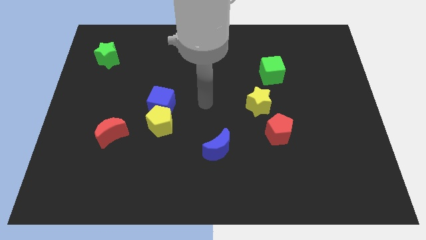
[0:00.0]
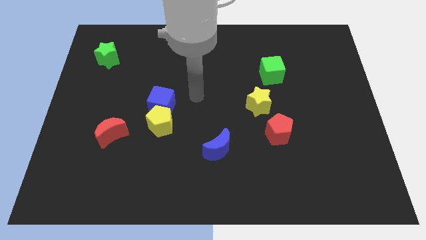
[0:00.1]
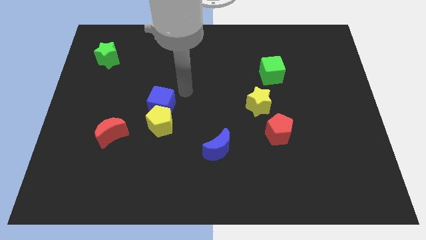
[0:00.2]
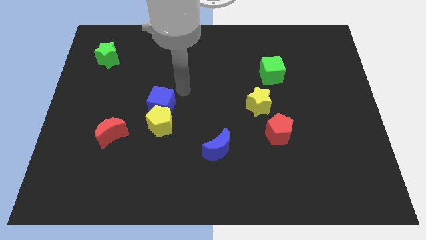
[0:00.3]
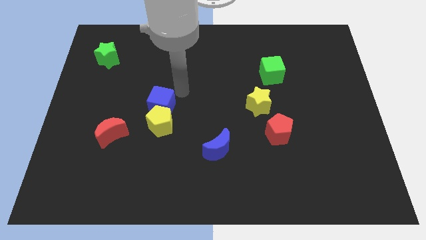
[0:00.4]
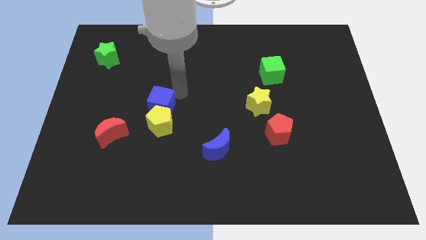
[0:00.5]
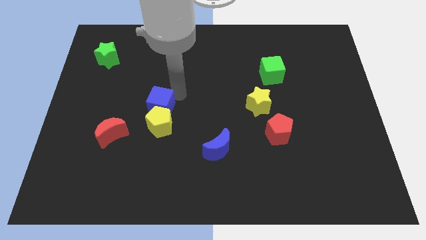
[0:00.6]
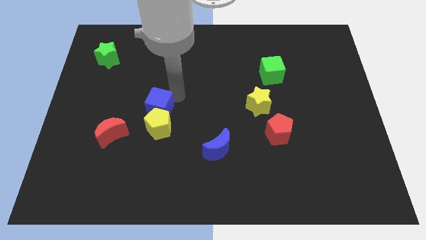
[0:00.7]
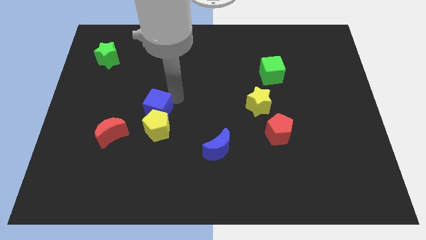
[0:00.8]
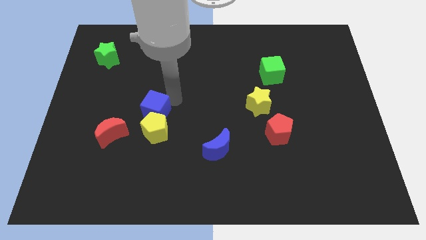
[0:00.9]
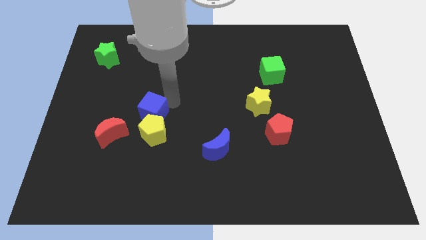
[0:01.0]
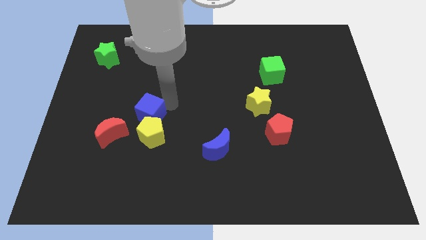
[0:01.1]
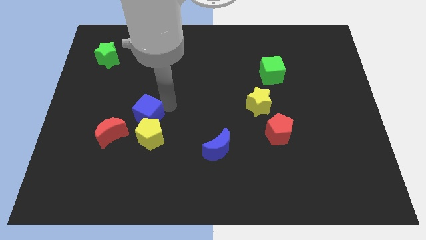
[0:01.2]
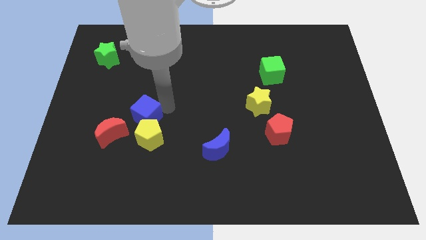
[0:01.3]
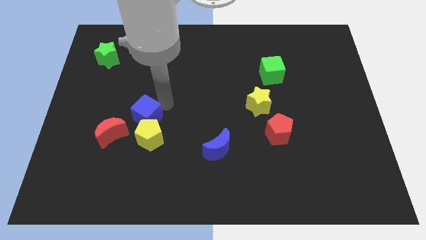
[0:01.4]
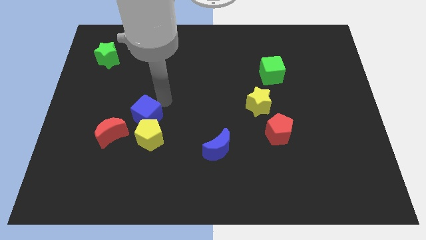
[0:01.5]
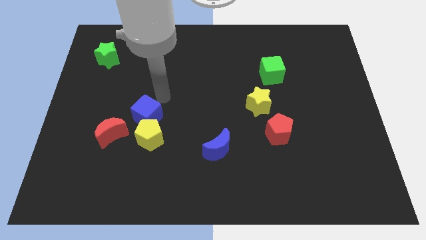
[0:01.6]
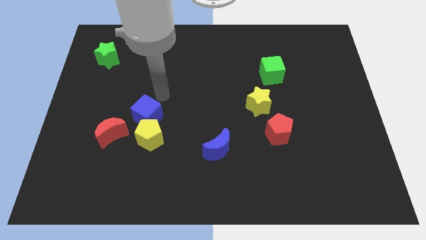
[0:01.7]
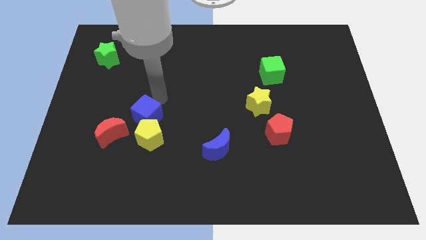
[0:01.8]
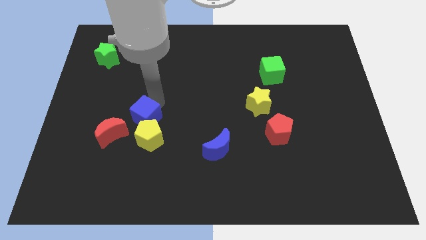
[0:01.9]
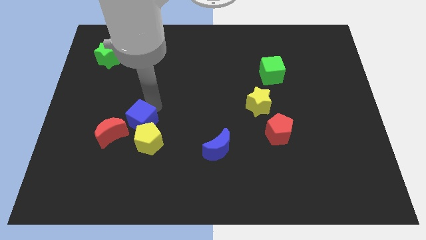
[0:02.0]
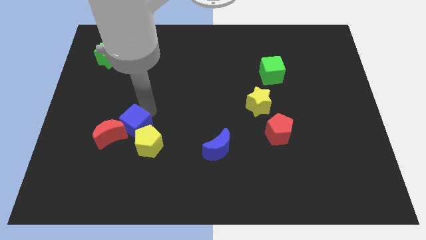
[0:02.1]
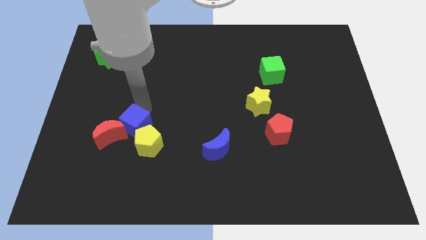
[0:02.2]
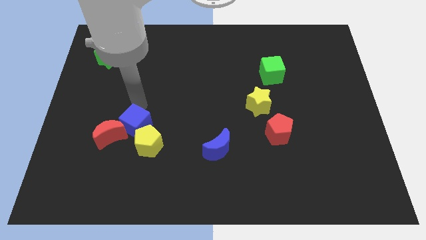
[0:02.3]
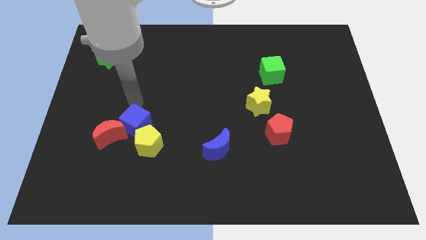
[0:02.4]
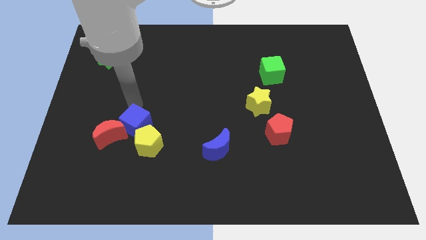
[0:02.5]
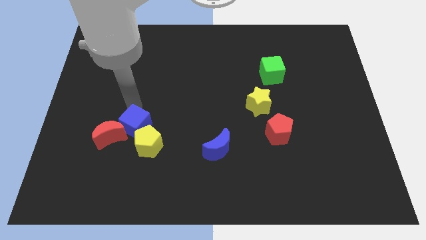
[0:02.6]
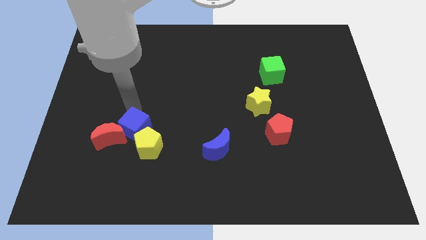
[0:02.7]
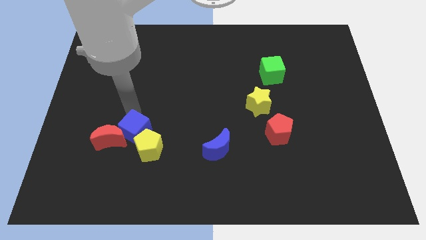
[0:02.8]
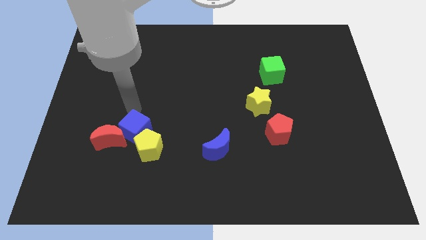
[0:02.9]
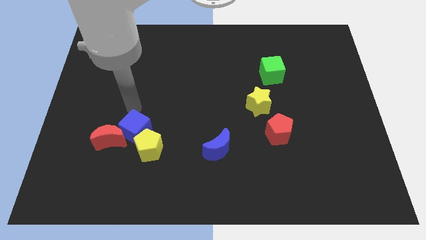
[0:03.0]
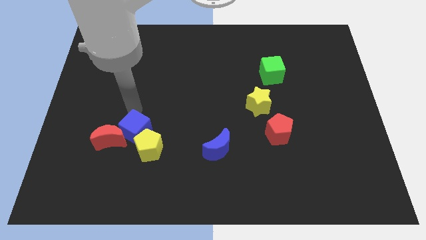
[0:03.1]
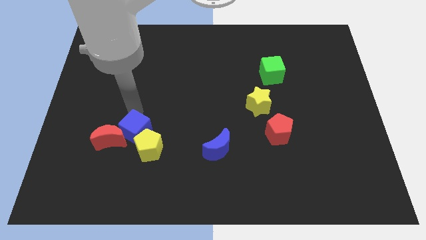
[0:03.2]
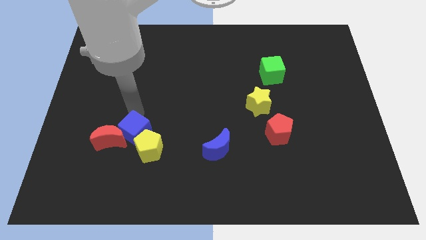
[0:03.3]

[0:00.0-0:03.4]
push the blue cube down a bit

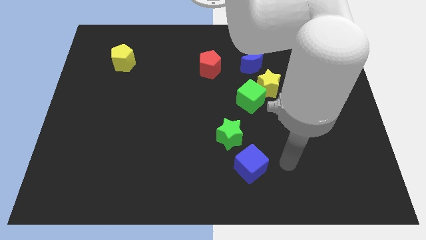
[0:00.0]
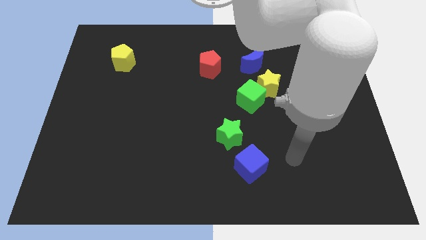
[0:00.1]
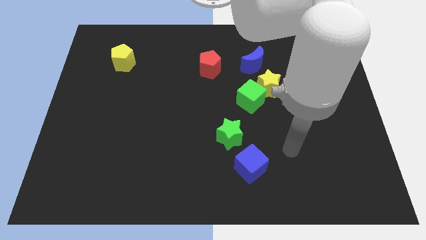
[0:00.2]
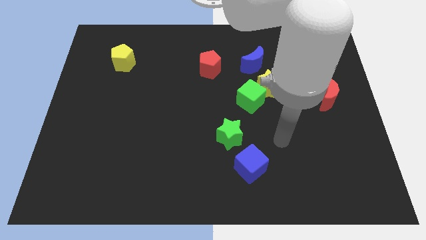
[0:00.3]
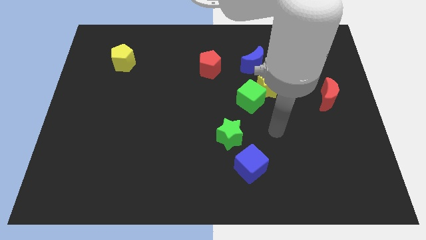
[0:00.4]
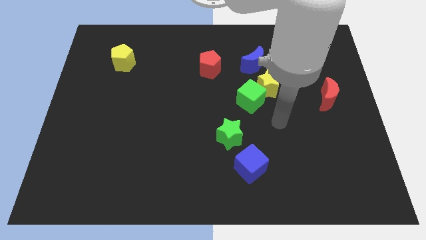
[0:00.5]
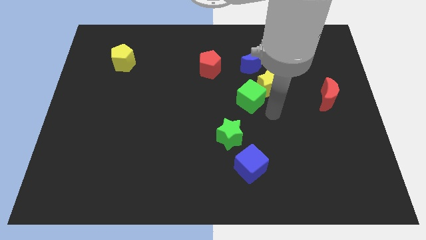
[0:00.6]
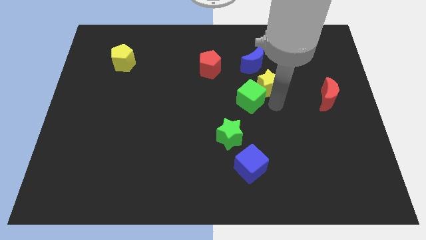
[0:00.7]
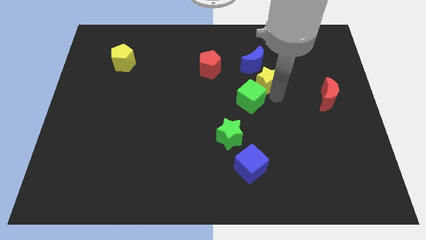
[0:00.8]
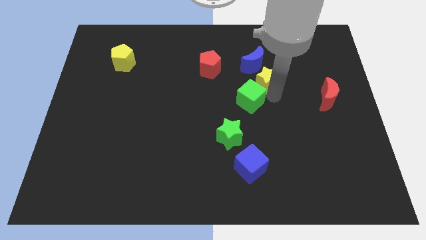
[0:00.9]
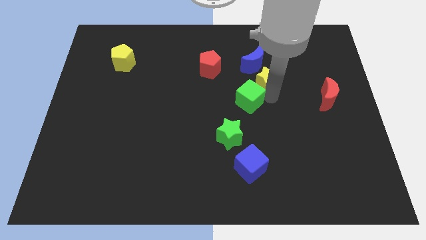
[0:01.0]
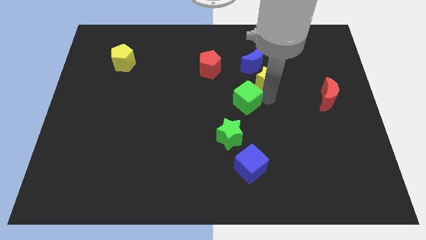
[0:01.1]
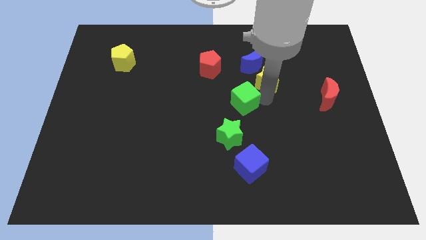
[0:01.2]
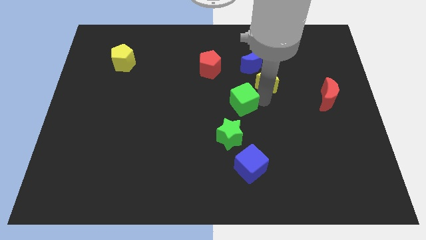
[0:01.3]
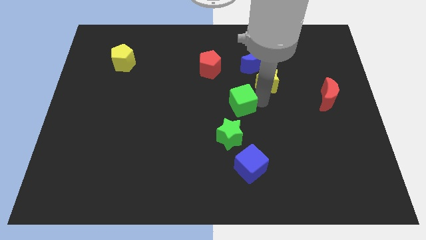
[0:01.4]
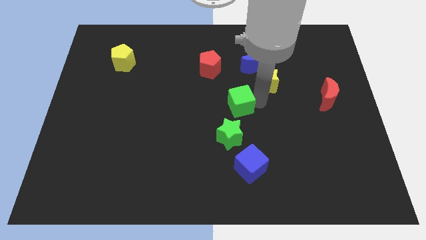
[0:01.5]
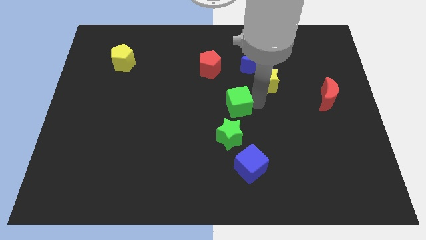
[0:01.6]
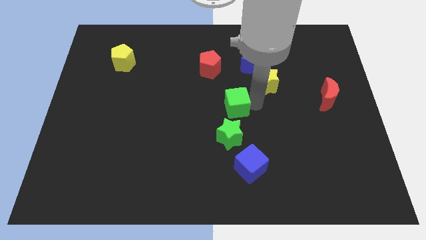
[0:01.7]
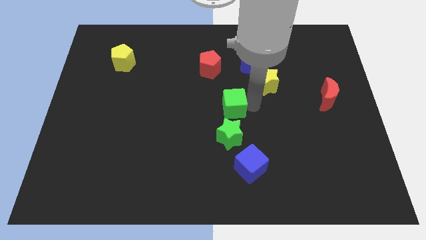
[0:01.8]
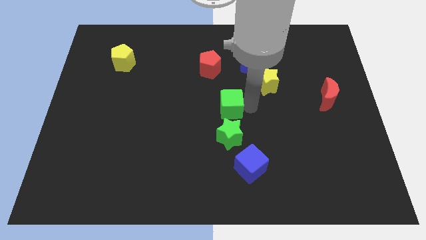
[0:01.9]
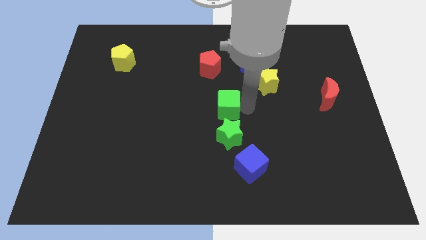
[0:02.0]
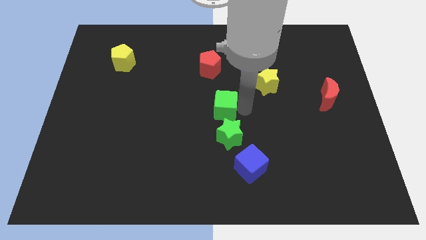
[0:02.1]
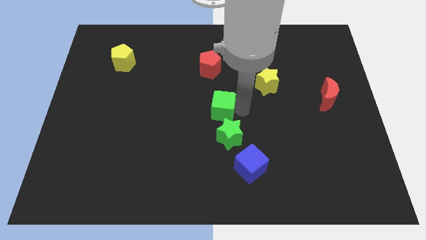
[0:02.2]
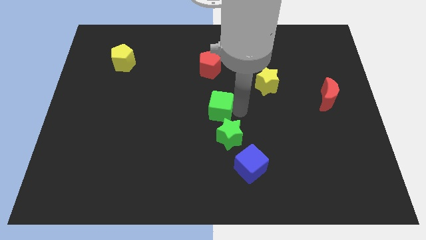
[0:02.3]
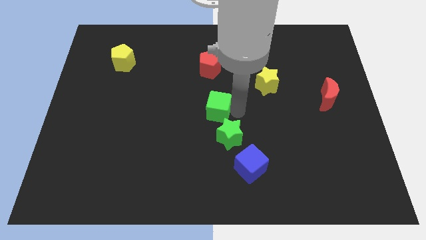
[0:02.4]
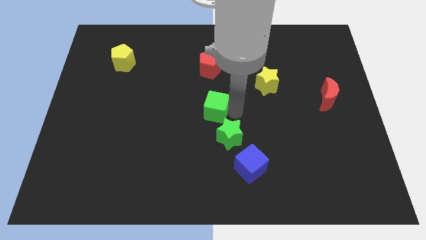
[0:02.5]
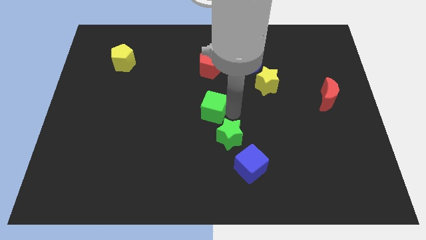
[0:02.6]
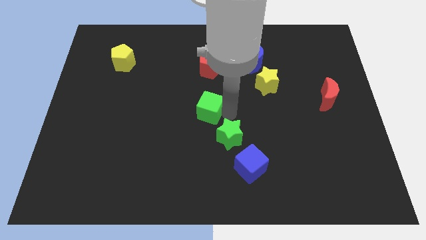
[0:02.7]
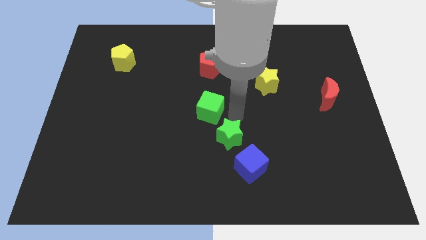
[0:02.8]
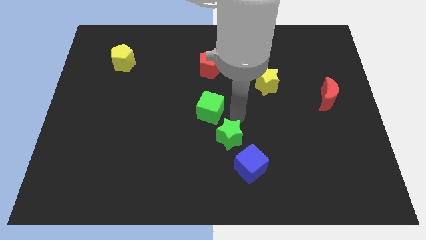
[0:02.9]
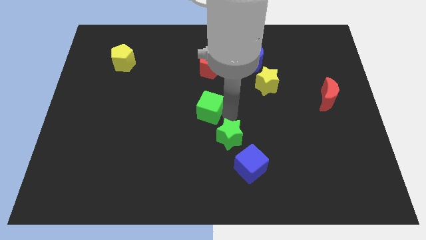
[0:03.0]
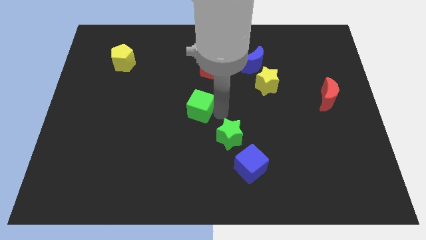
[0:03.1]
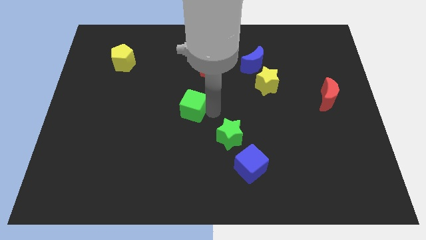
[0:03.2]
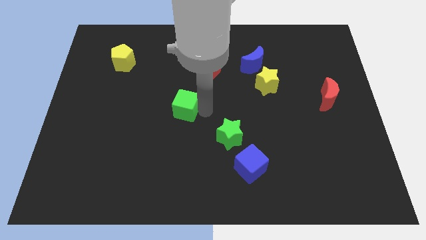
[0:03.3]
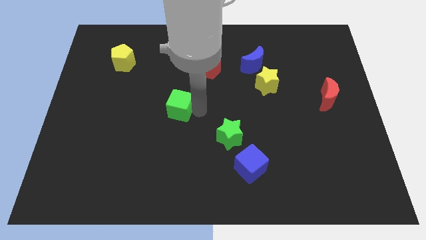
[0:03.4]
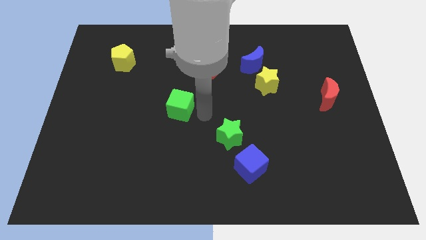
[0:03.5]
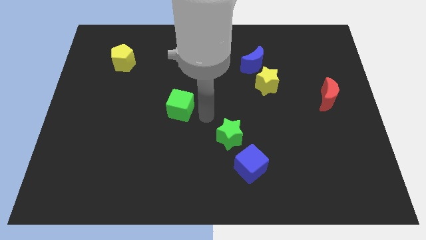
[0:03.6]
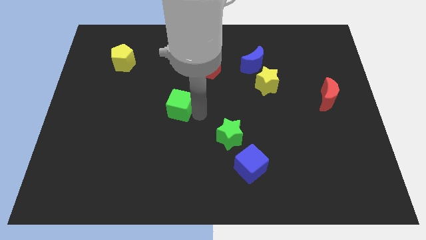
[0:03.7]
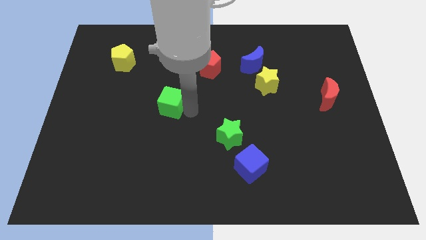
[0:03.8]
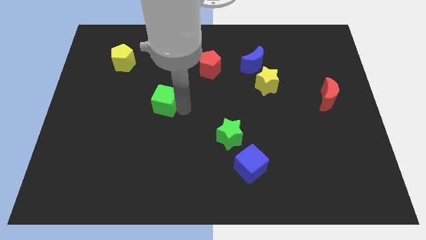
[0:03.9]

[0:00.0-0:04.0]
push the green cube left

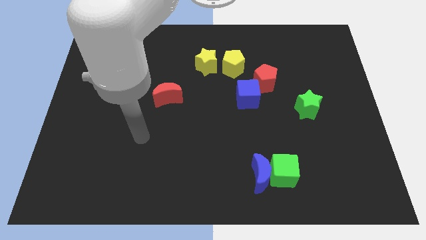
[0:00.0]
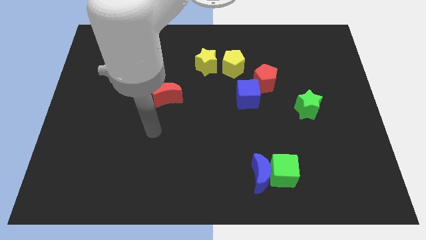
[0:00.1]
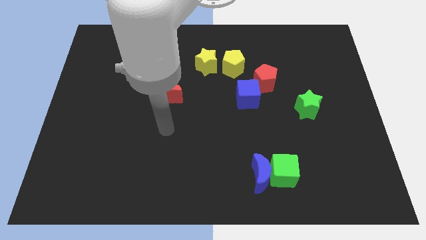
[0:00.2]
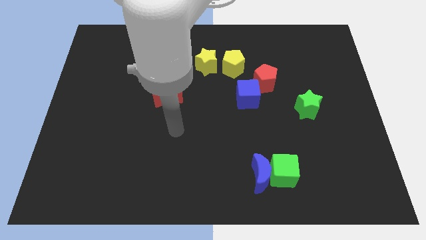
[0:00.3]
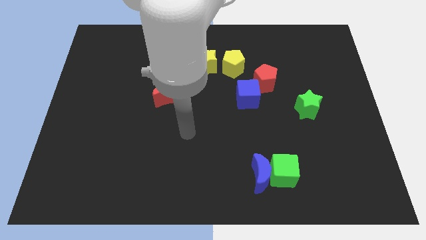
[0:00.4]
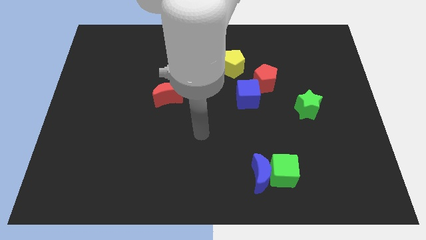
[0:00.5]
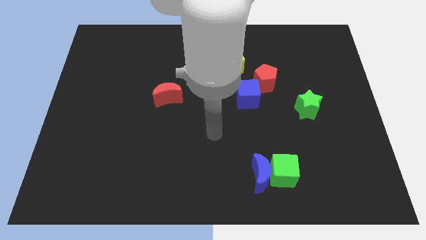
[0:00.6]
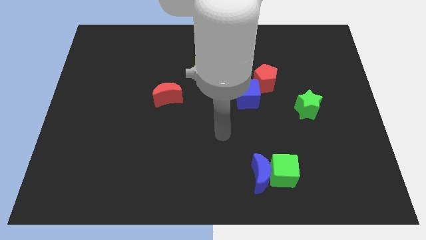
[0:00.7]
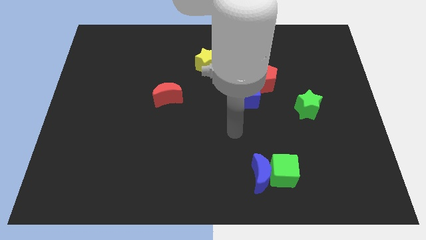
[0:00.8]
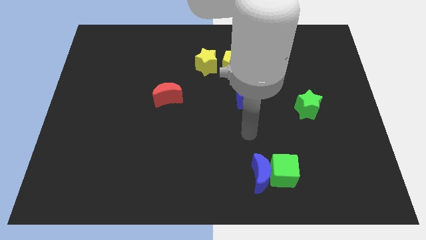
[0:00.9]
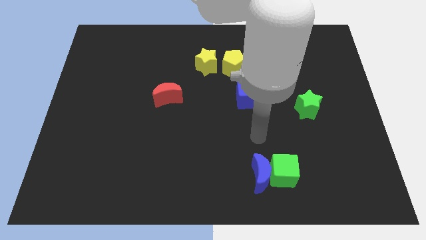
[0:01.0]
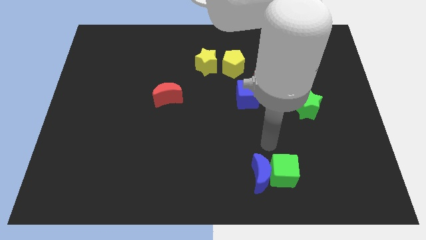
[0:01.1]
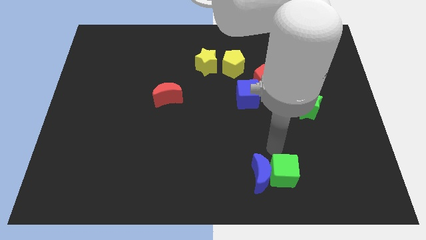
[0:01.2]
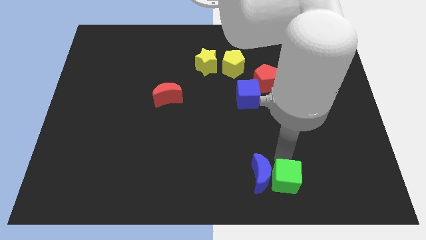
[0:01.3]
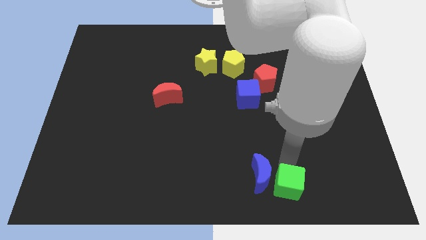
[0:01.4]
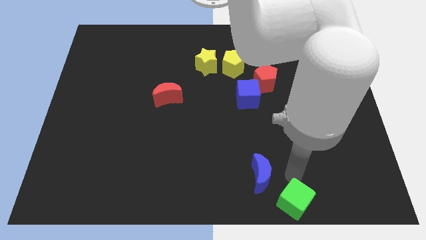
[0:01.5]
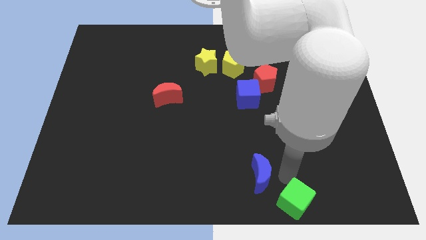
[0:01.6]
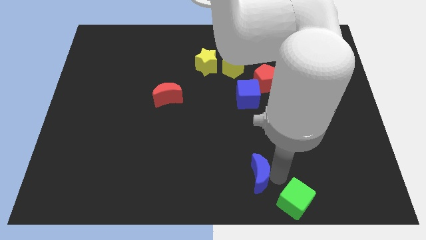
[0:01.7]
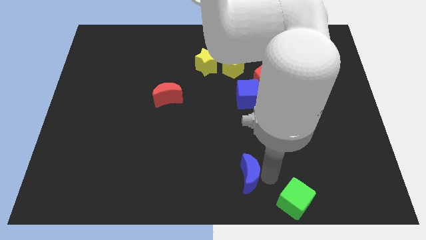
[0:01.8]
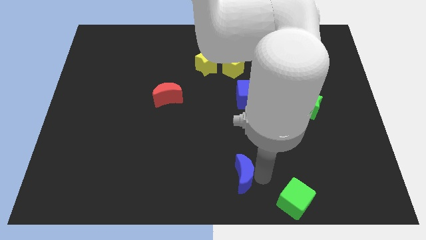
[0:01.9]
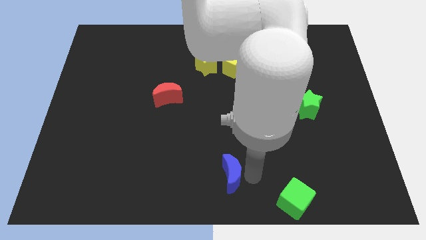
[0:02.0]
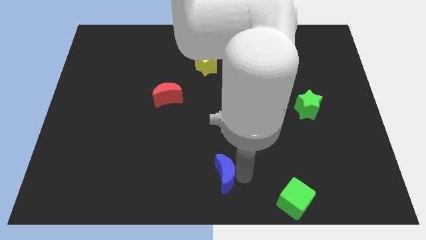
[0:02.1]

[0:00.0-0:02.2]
slightly push the blue moon left
